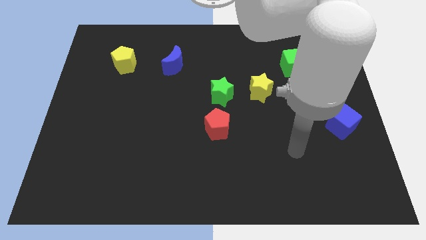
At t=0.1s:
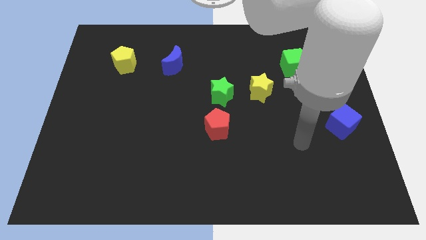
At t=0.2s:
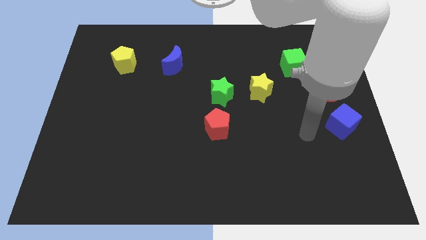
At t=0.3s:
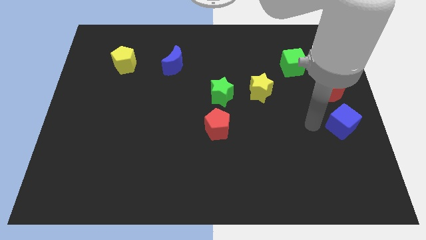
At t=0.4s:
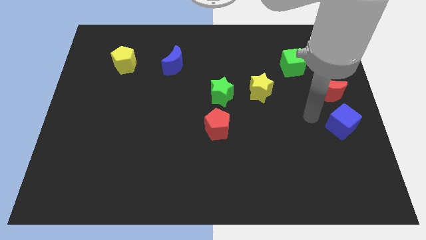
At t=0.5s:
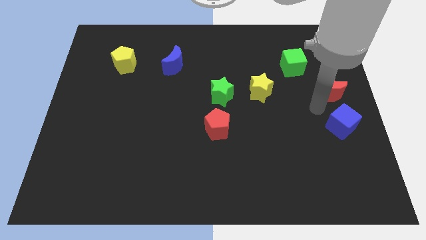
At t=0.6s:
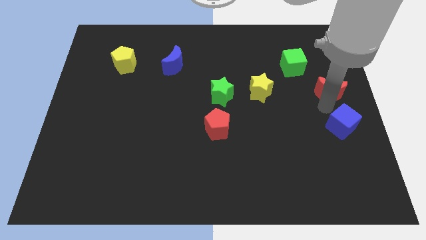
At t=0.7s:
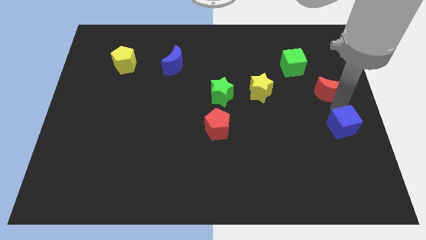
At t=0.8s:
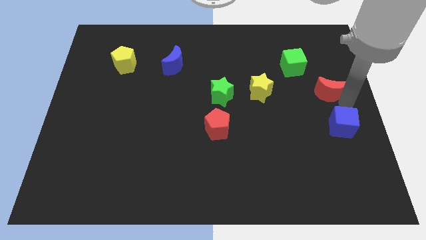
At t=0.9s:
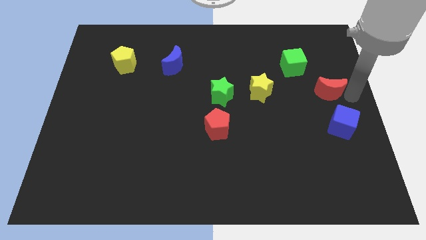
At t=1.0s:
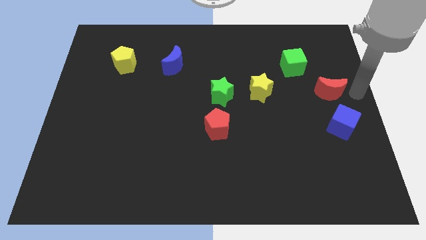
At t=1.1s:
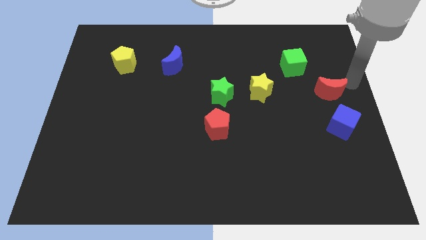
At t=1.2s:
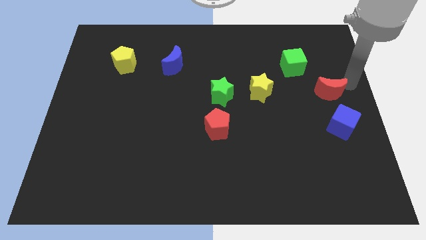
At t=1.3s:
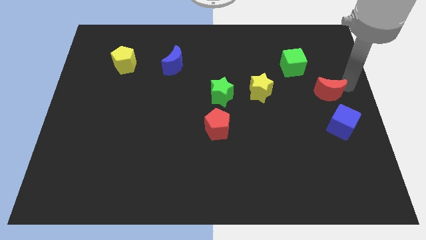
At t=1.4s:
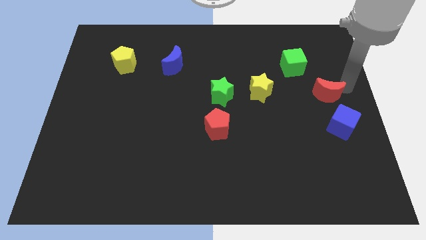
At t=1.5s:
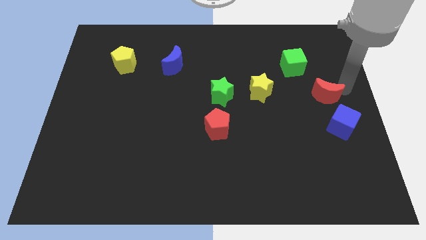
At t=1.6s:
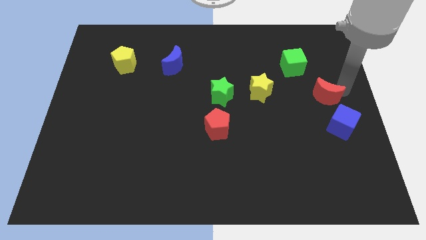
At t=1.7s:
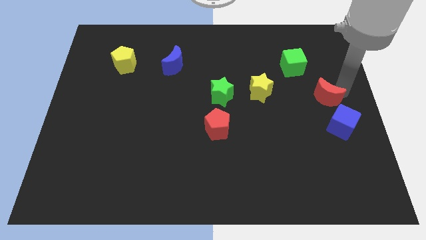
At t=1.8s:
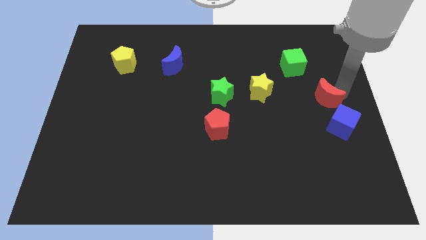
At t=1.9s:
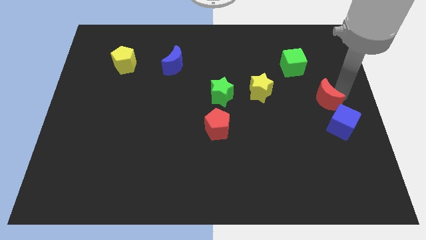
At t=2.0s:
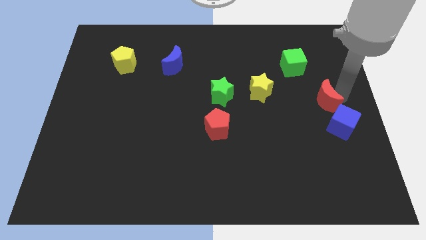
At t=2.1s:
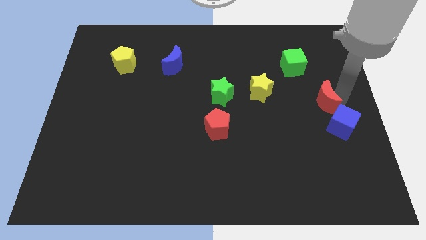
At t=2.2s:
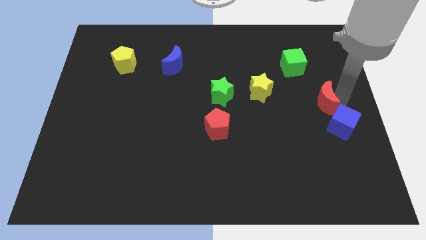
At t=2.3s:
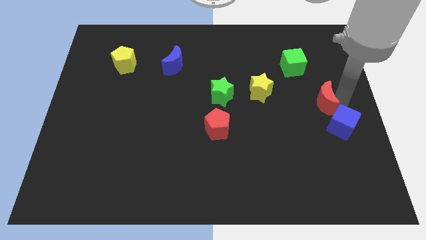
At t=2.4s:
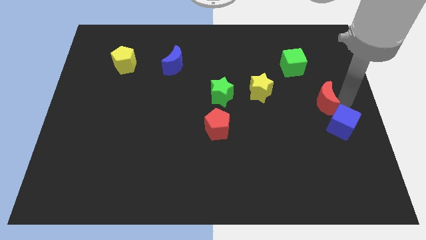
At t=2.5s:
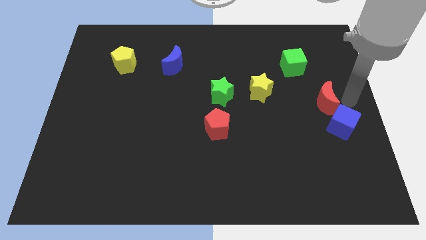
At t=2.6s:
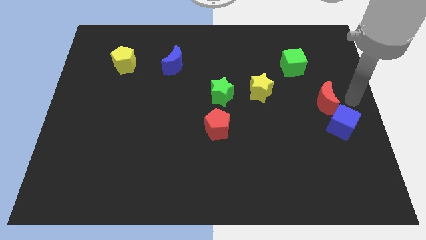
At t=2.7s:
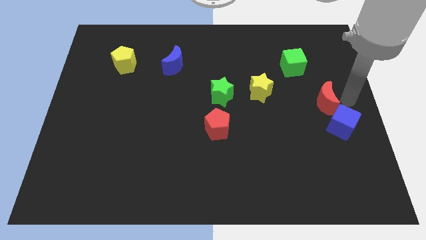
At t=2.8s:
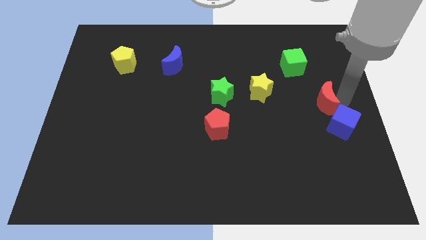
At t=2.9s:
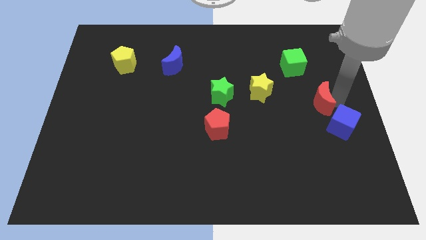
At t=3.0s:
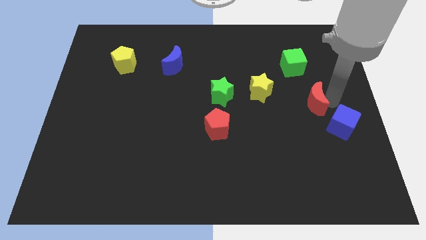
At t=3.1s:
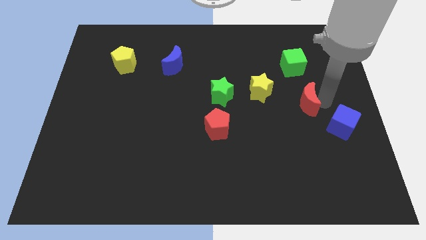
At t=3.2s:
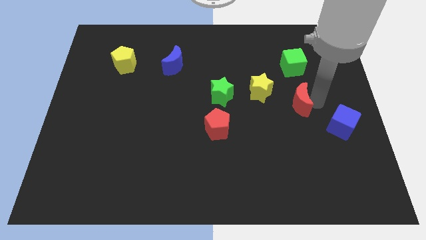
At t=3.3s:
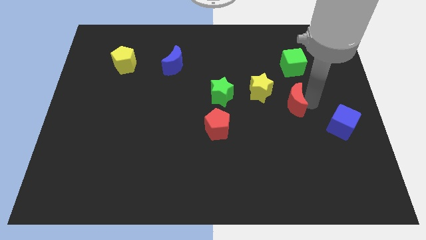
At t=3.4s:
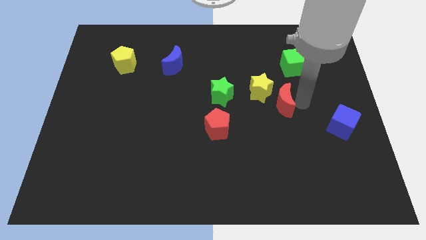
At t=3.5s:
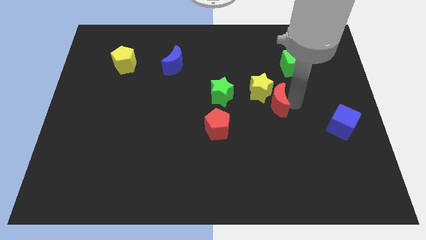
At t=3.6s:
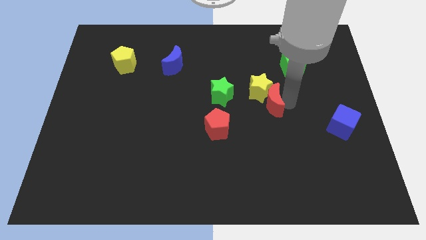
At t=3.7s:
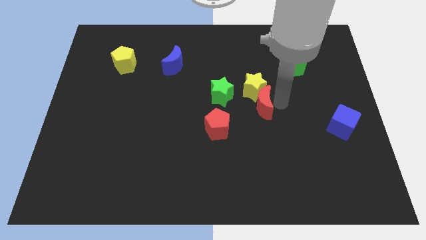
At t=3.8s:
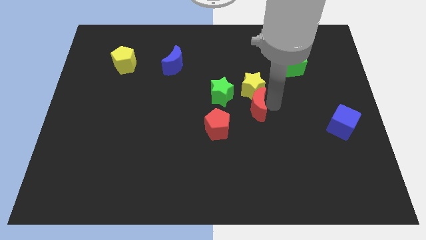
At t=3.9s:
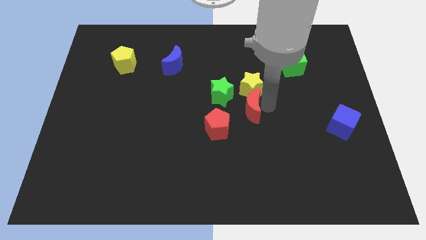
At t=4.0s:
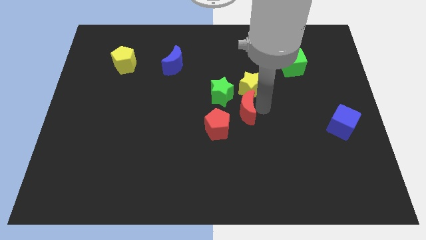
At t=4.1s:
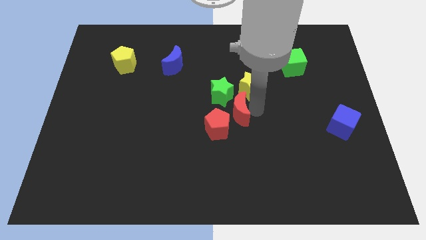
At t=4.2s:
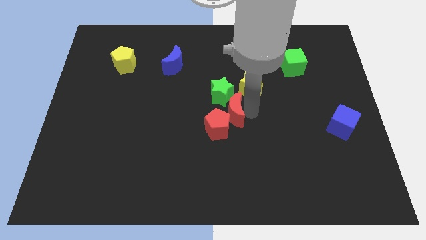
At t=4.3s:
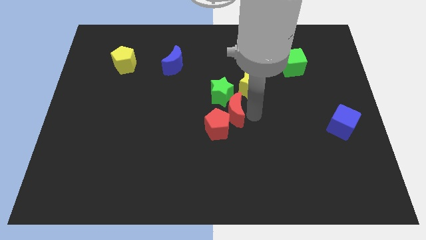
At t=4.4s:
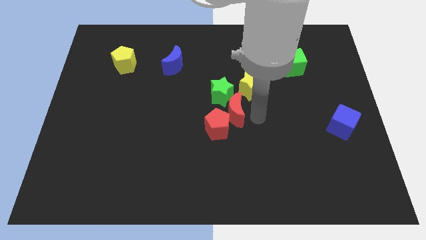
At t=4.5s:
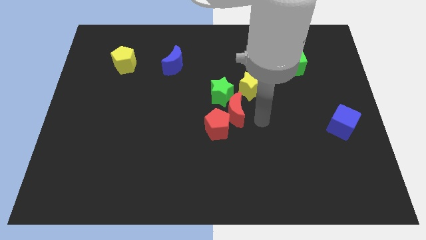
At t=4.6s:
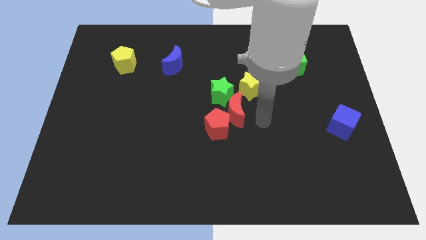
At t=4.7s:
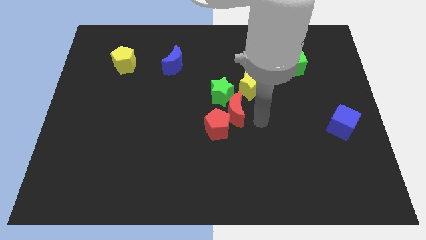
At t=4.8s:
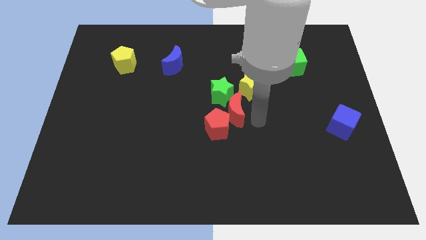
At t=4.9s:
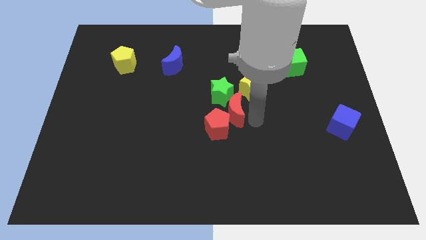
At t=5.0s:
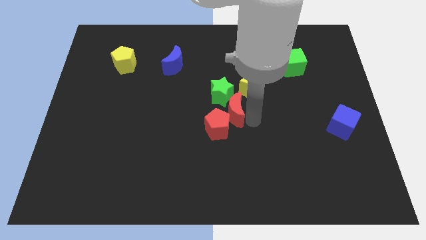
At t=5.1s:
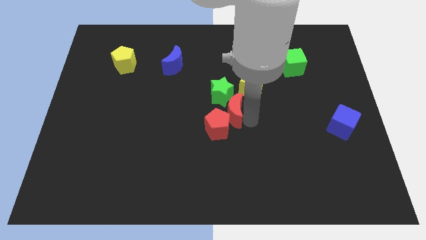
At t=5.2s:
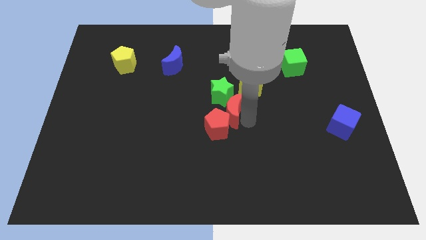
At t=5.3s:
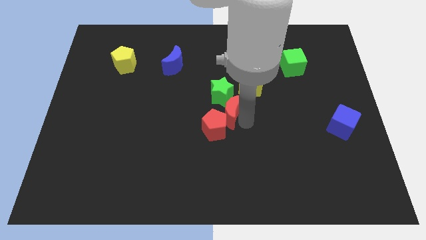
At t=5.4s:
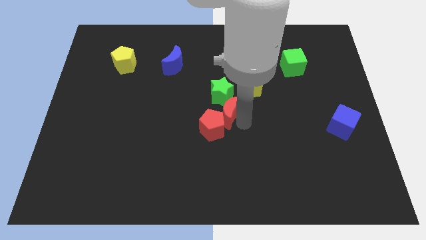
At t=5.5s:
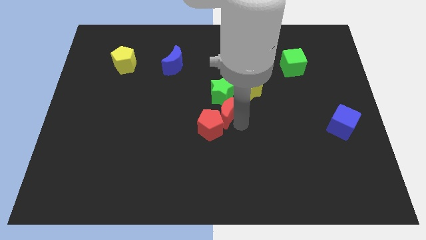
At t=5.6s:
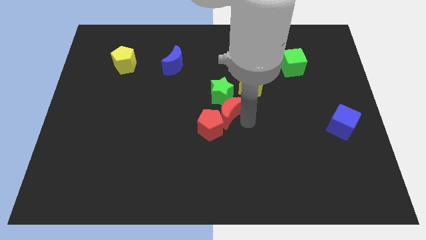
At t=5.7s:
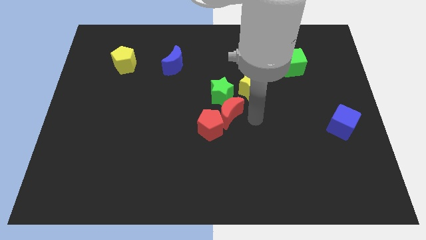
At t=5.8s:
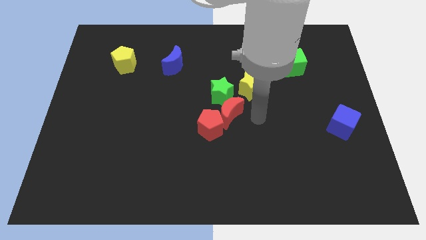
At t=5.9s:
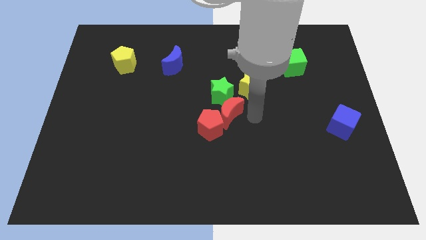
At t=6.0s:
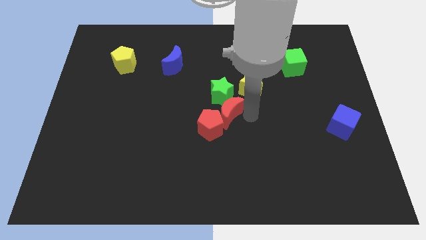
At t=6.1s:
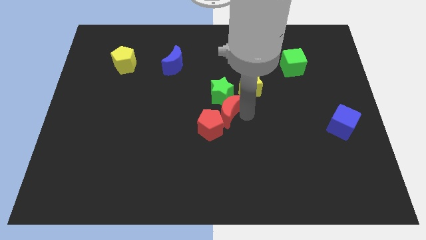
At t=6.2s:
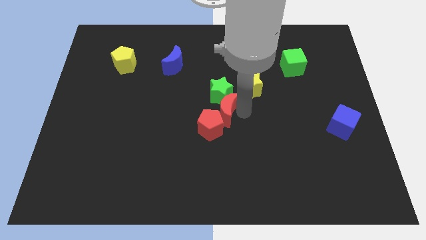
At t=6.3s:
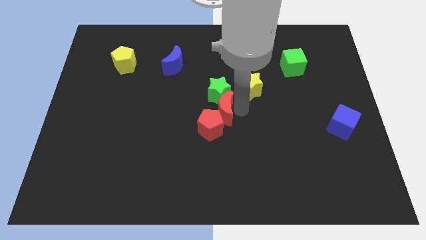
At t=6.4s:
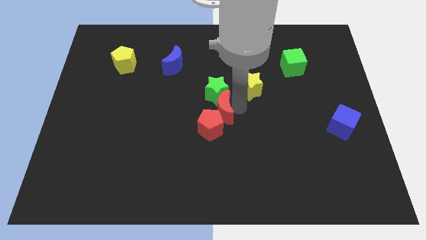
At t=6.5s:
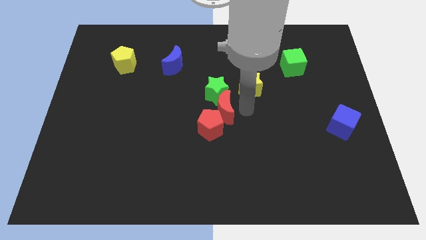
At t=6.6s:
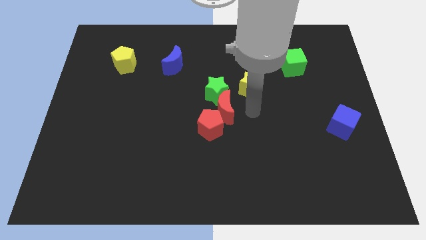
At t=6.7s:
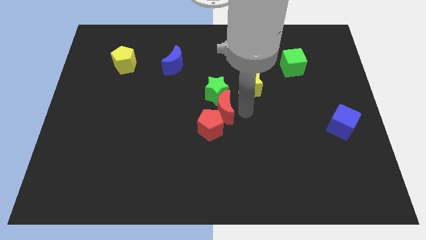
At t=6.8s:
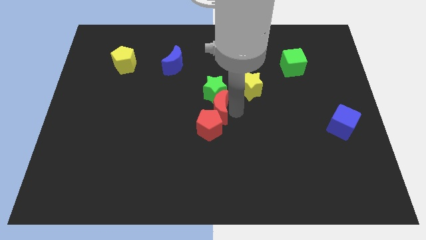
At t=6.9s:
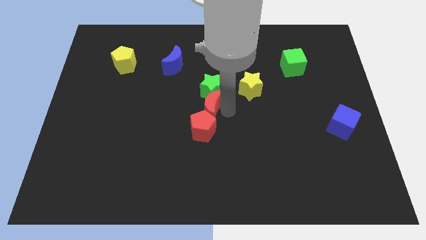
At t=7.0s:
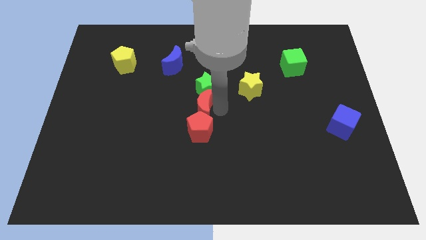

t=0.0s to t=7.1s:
slide the red moon to the top left side of the red pentagon

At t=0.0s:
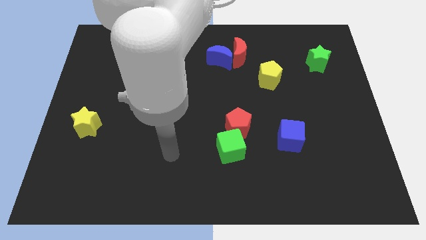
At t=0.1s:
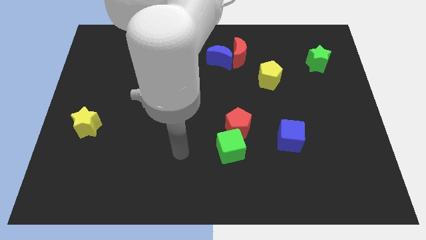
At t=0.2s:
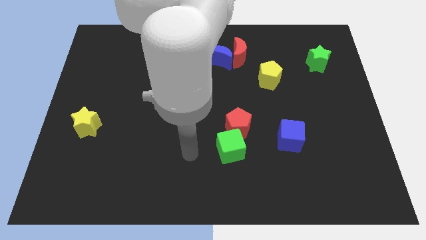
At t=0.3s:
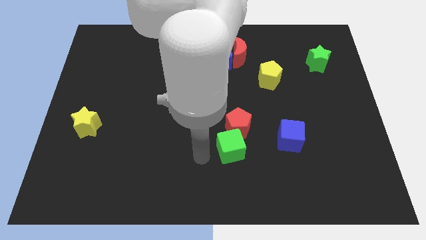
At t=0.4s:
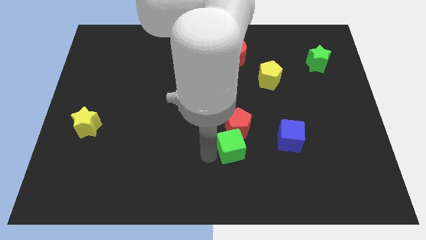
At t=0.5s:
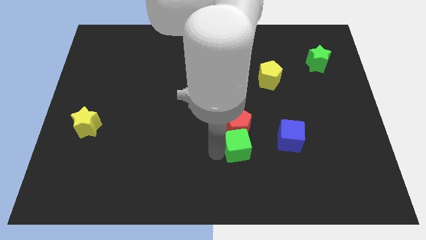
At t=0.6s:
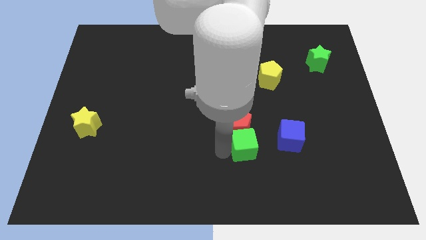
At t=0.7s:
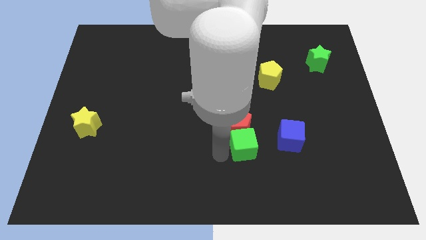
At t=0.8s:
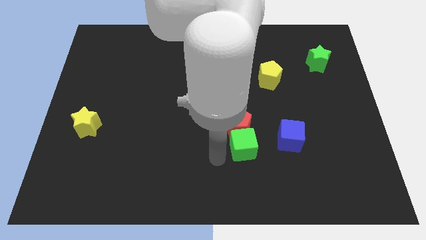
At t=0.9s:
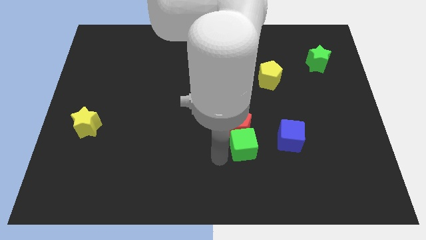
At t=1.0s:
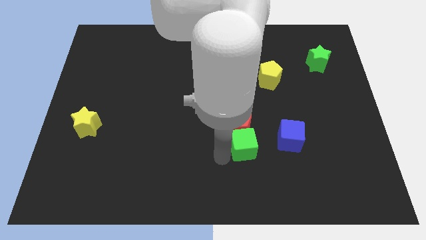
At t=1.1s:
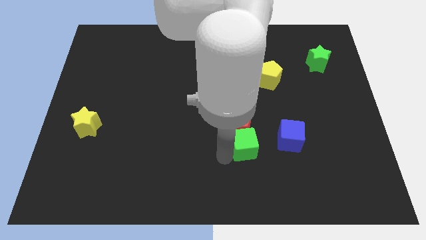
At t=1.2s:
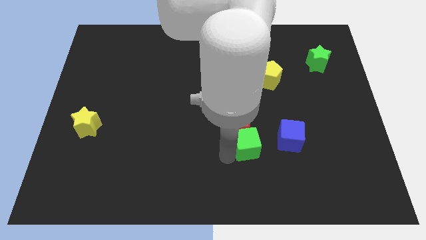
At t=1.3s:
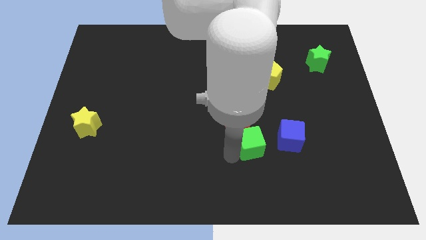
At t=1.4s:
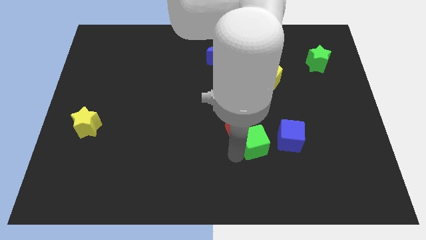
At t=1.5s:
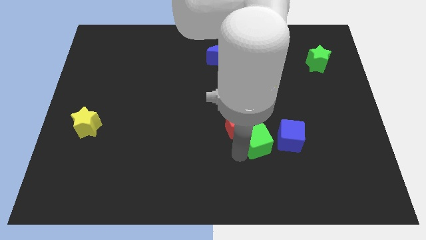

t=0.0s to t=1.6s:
slide the green cube to the right of the red pentagon
